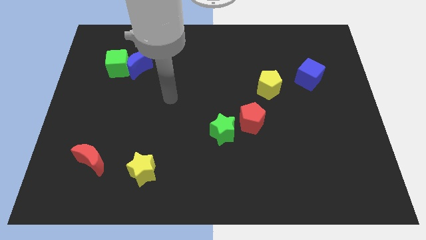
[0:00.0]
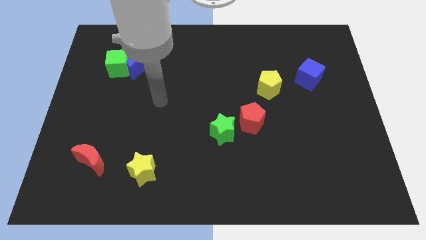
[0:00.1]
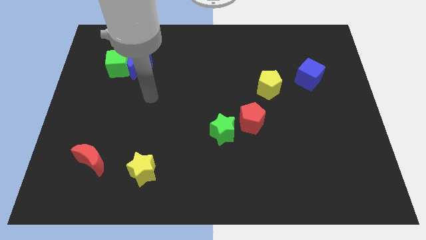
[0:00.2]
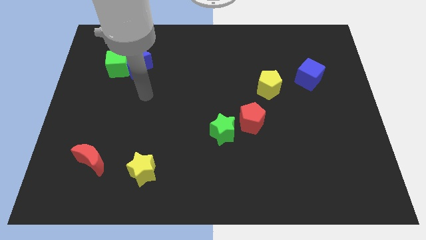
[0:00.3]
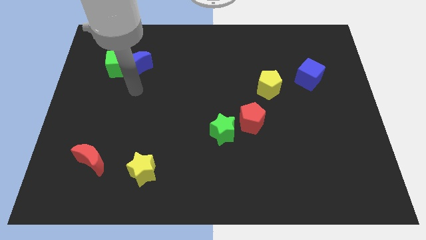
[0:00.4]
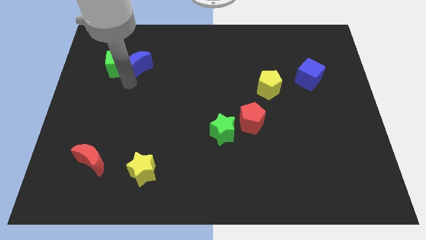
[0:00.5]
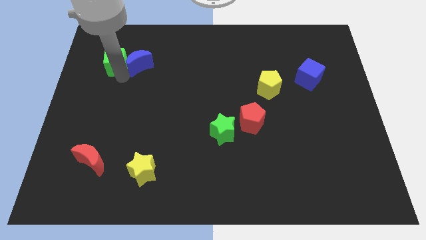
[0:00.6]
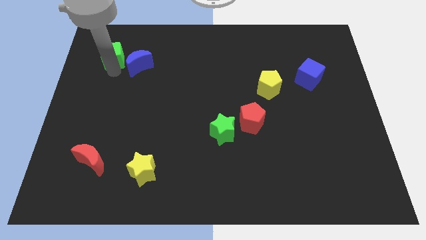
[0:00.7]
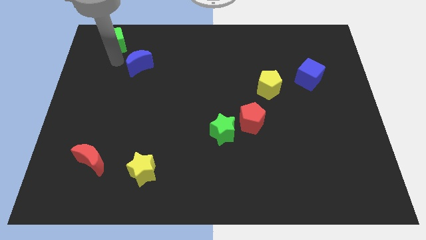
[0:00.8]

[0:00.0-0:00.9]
separate the blue moon from the green cube

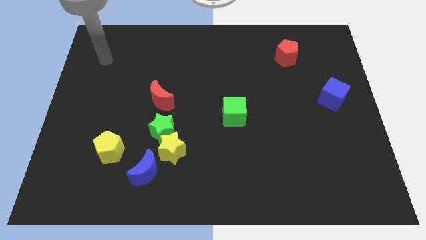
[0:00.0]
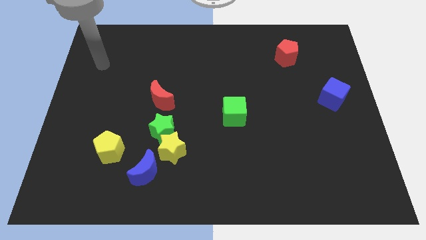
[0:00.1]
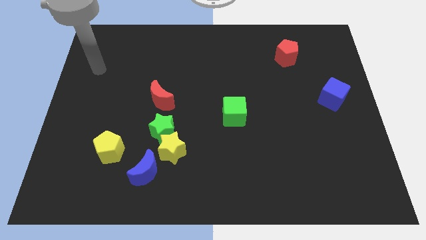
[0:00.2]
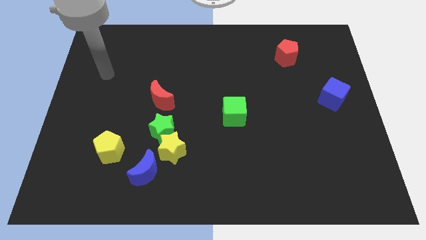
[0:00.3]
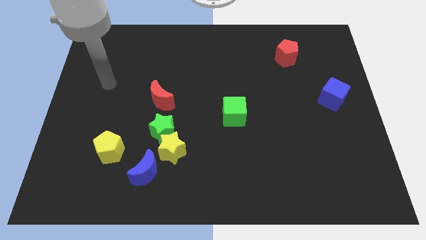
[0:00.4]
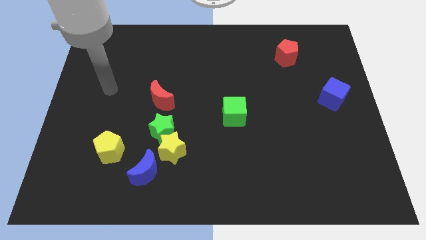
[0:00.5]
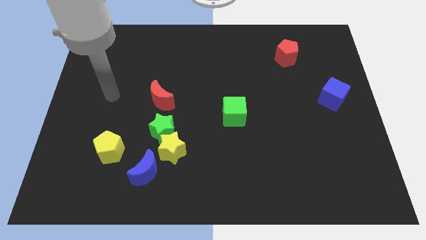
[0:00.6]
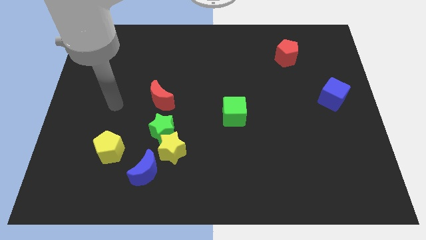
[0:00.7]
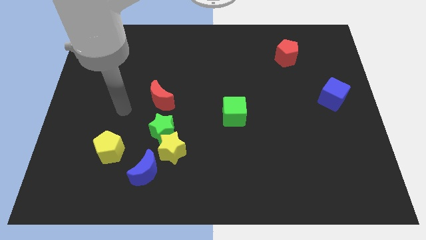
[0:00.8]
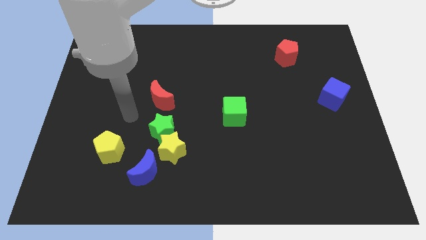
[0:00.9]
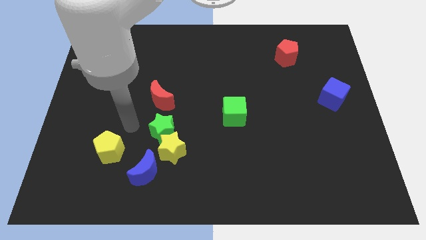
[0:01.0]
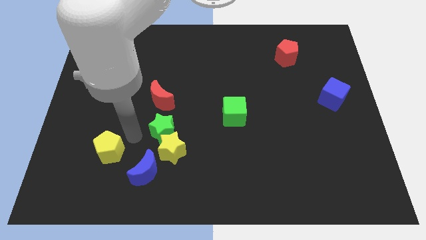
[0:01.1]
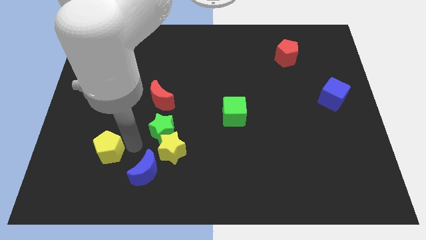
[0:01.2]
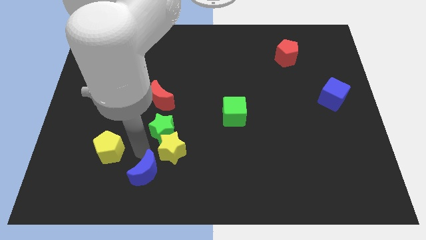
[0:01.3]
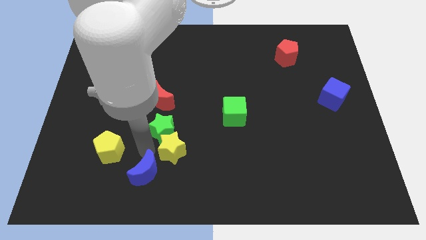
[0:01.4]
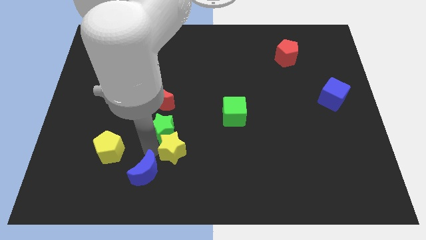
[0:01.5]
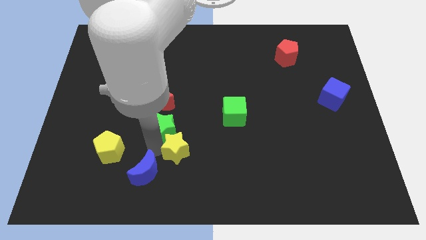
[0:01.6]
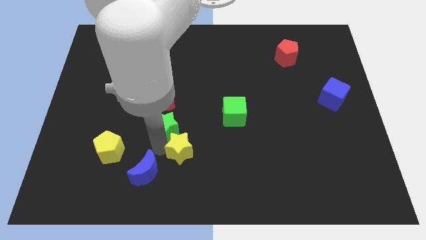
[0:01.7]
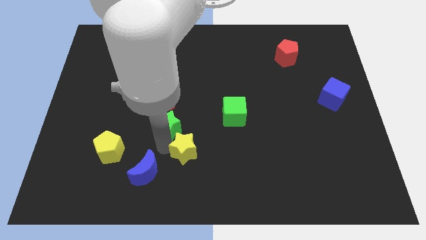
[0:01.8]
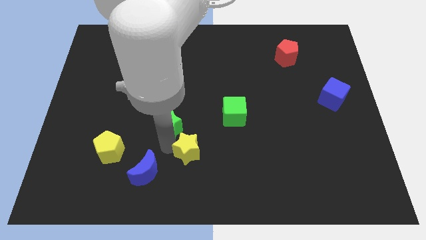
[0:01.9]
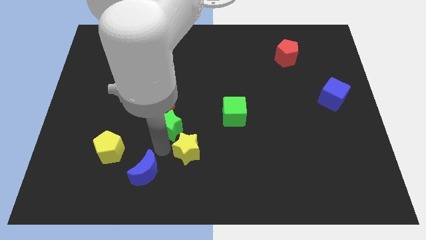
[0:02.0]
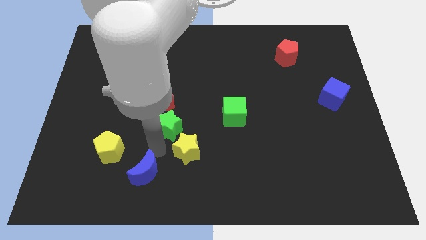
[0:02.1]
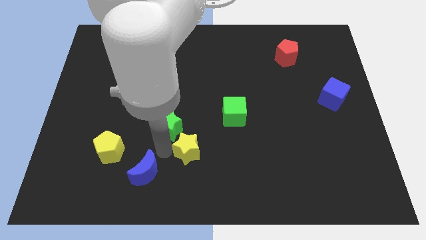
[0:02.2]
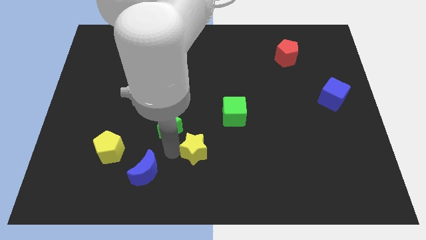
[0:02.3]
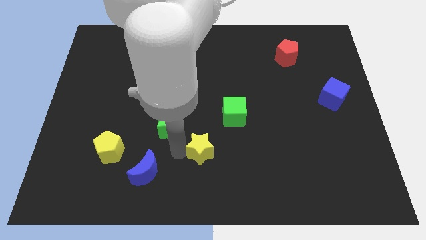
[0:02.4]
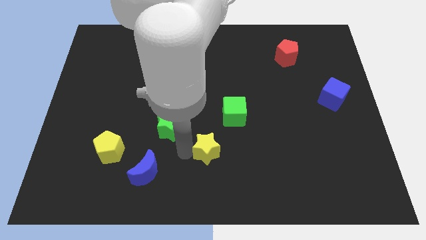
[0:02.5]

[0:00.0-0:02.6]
move the yellow star away from the green star and blue moon

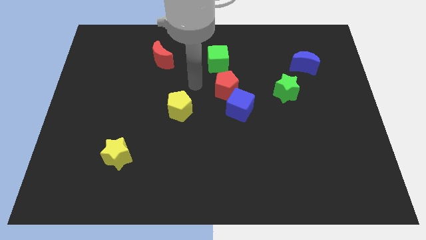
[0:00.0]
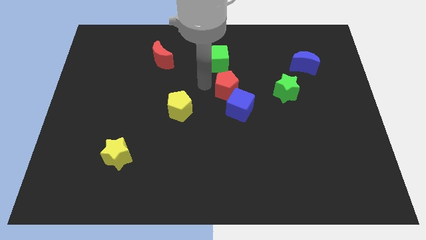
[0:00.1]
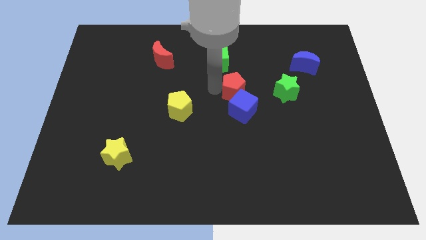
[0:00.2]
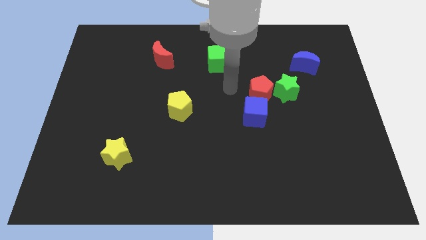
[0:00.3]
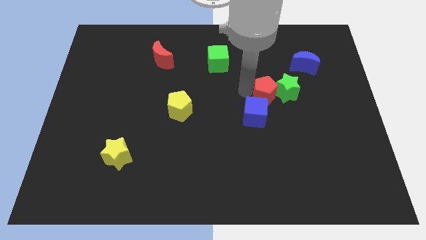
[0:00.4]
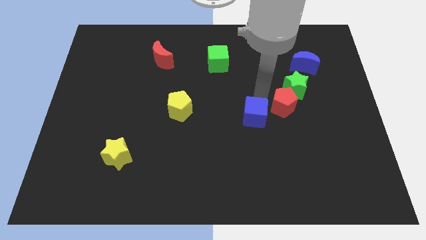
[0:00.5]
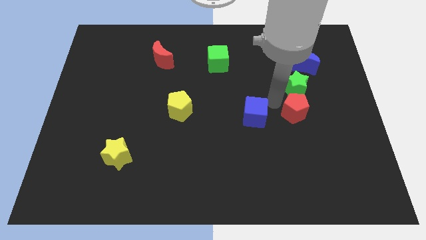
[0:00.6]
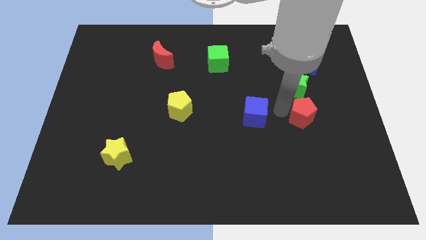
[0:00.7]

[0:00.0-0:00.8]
move the blue cube away from the red pentagon

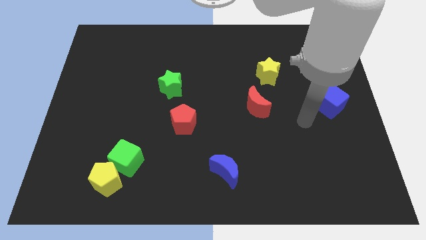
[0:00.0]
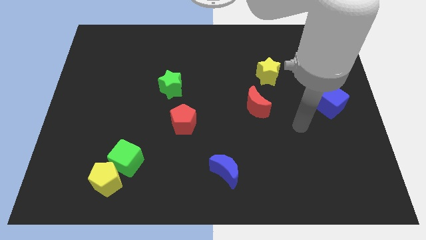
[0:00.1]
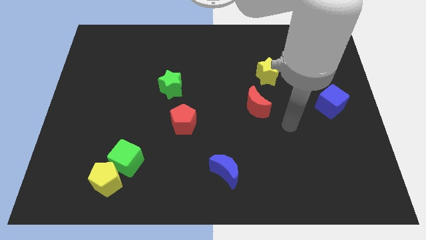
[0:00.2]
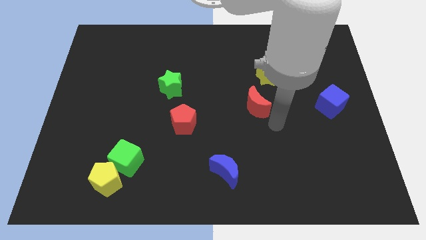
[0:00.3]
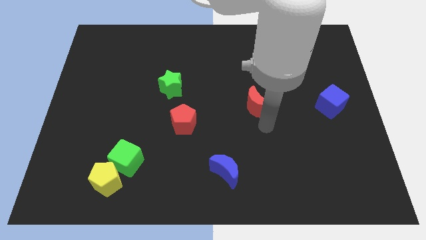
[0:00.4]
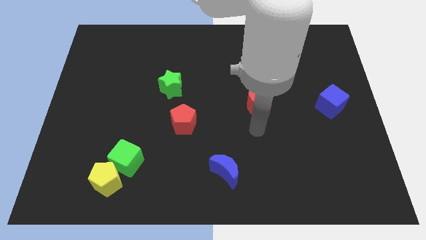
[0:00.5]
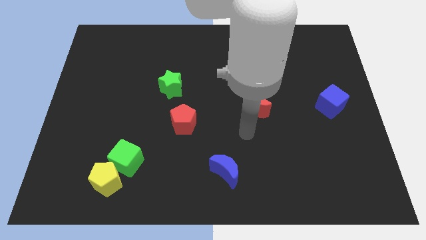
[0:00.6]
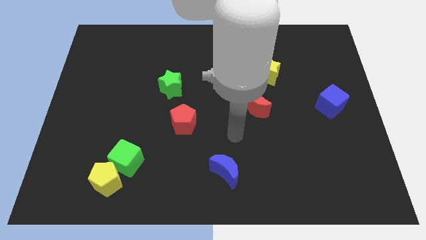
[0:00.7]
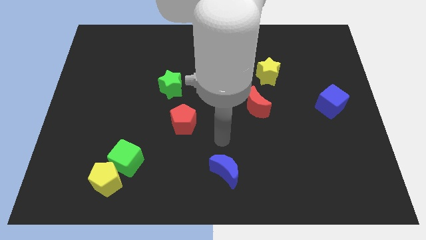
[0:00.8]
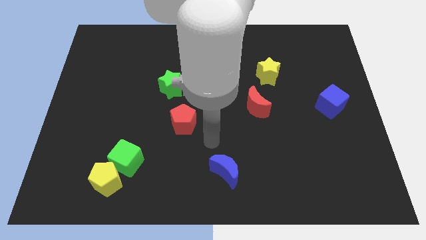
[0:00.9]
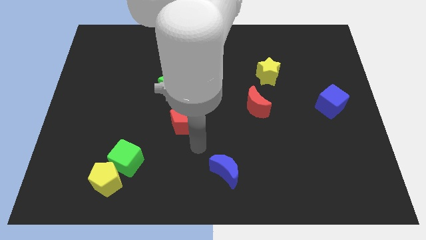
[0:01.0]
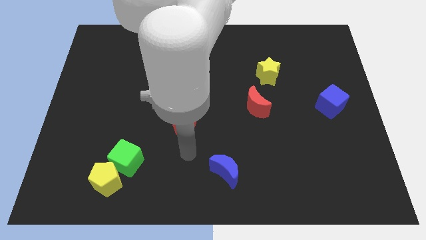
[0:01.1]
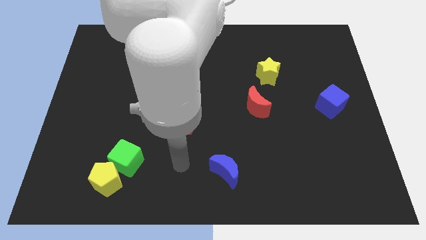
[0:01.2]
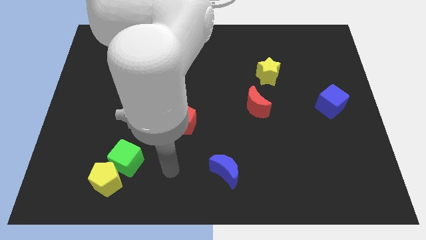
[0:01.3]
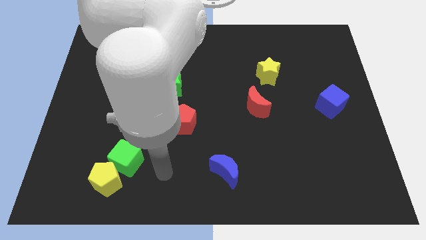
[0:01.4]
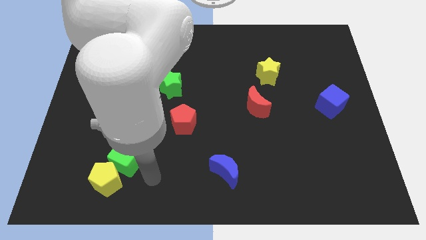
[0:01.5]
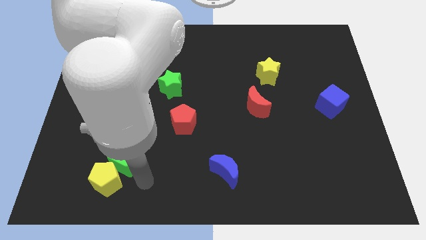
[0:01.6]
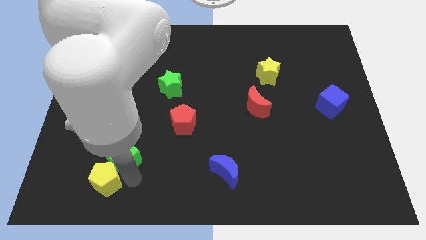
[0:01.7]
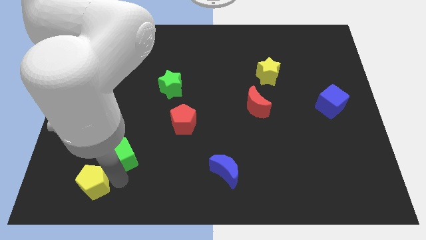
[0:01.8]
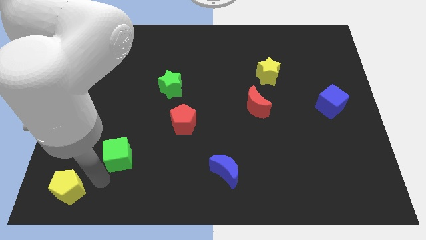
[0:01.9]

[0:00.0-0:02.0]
separate the green cube from the yellow pentagon

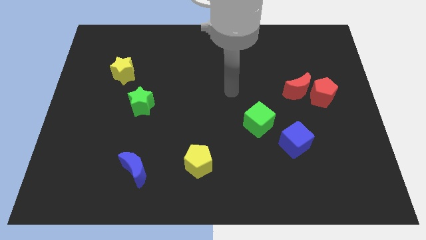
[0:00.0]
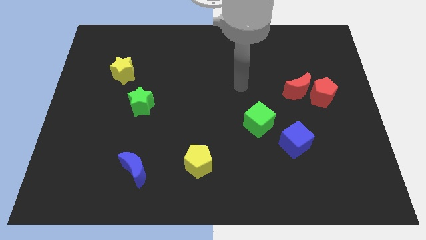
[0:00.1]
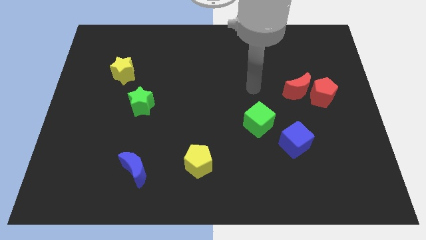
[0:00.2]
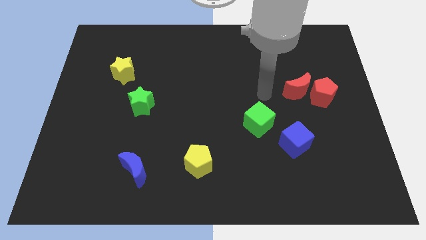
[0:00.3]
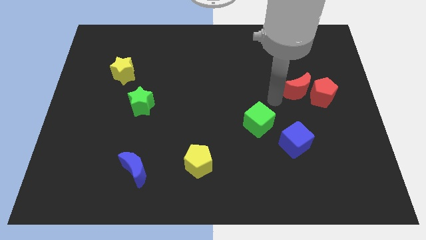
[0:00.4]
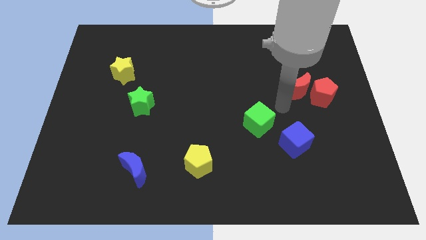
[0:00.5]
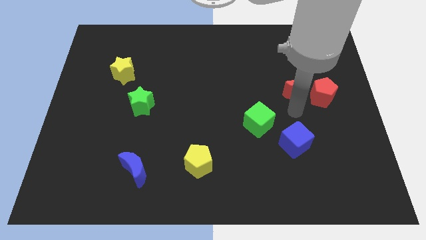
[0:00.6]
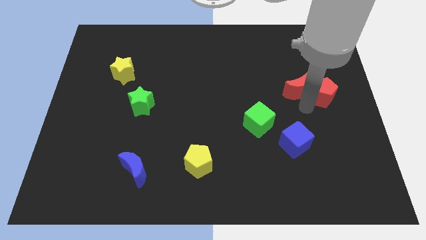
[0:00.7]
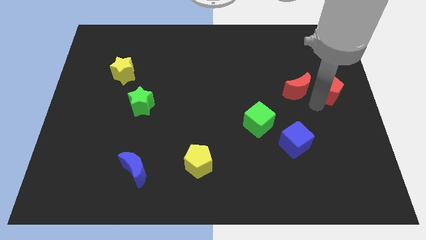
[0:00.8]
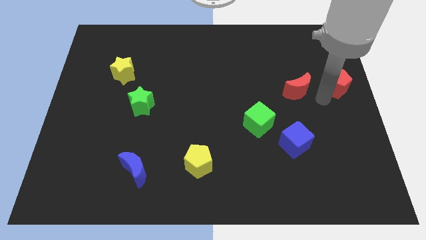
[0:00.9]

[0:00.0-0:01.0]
move the red moon away from the red pentagon

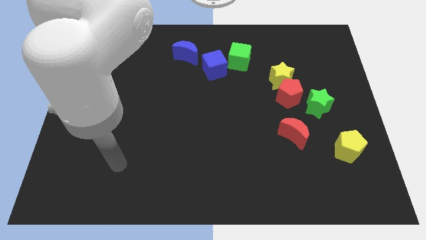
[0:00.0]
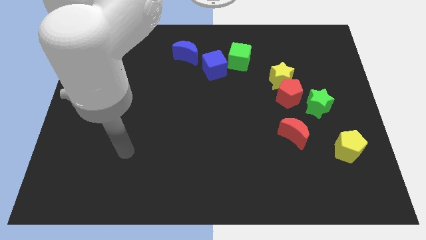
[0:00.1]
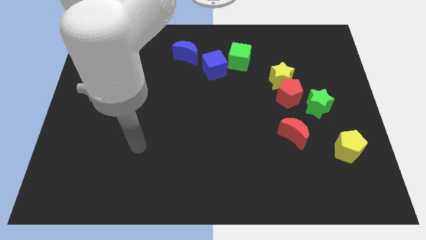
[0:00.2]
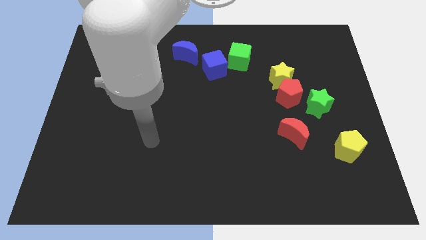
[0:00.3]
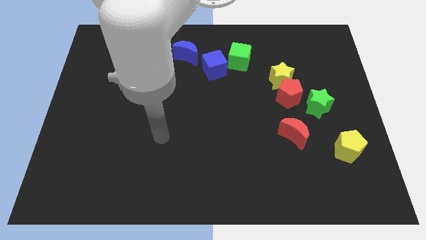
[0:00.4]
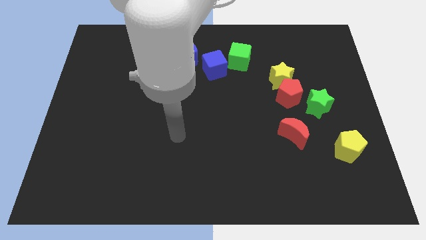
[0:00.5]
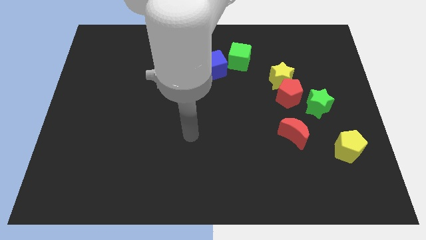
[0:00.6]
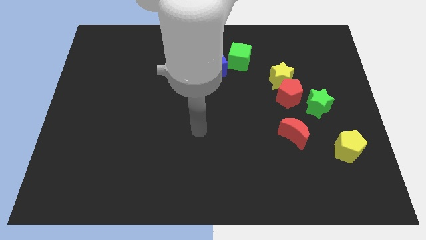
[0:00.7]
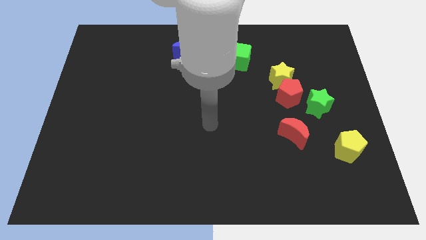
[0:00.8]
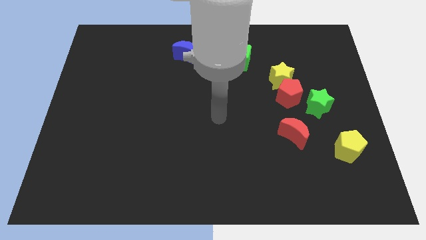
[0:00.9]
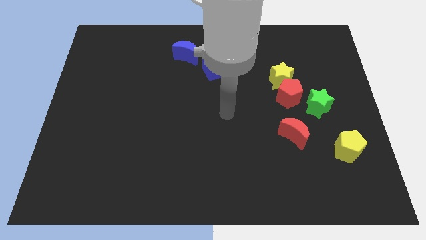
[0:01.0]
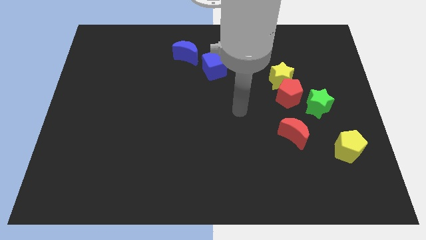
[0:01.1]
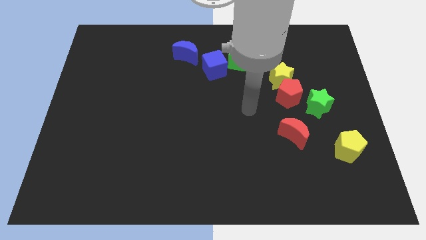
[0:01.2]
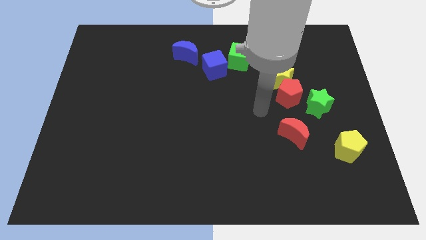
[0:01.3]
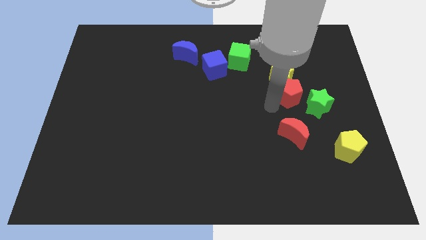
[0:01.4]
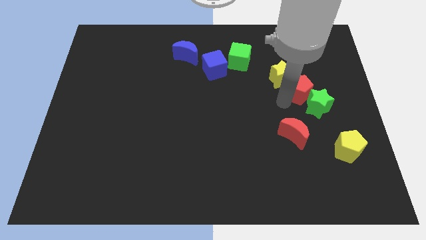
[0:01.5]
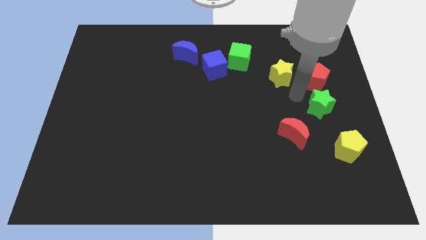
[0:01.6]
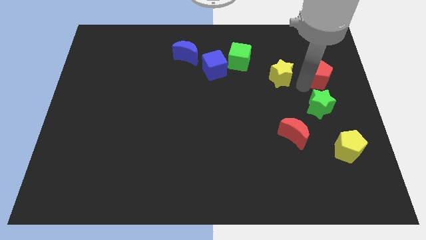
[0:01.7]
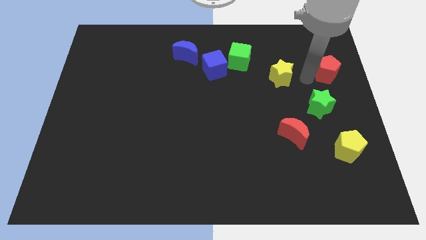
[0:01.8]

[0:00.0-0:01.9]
pull the yellow star apart from the red pentagon
